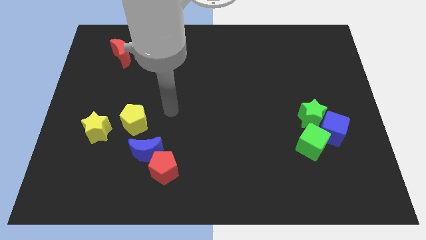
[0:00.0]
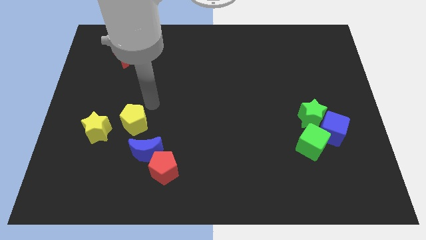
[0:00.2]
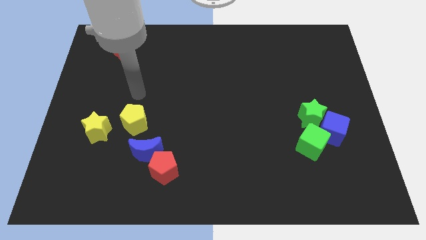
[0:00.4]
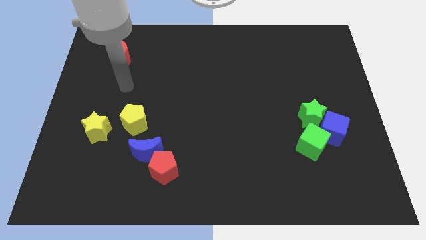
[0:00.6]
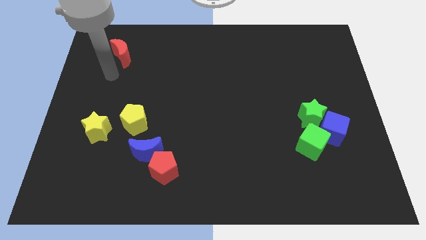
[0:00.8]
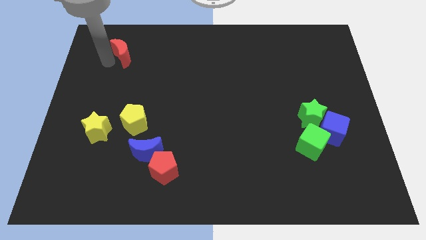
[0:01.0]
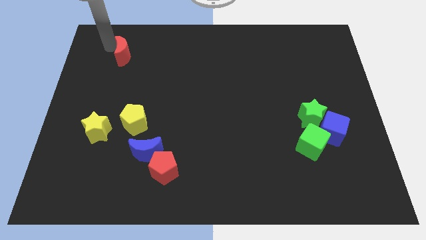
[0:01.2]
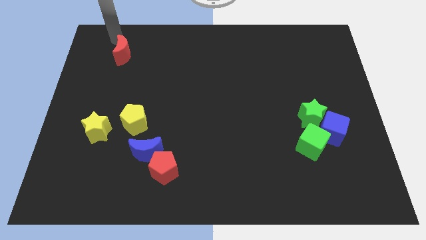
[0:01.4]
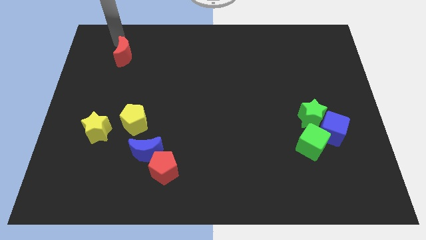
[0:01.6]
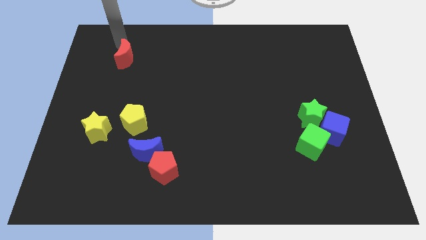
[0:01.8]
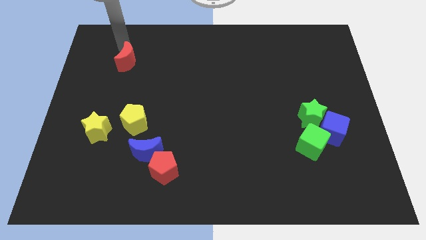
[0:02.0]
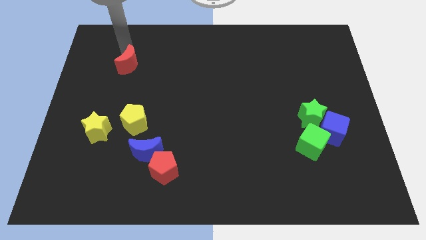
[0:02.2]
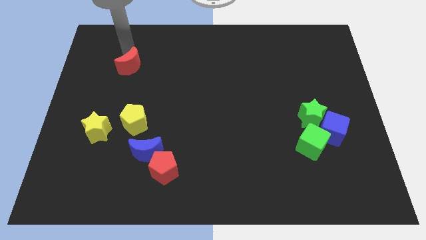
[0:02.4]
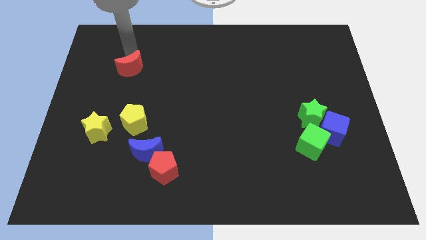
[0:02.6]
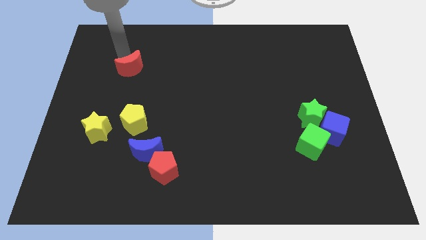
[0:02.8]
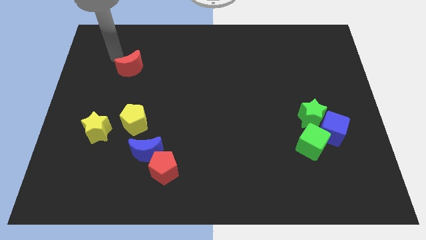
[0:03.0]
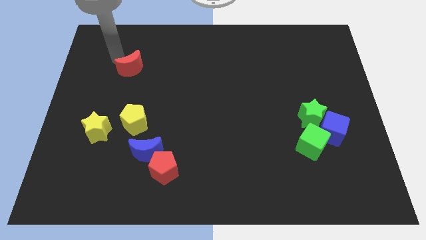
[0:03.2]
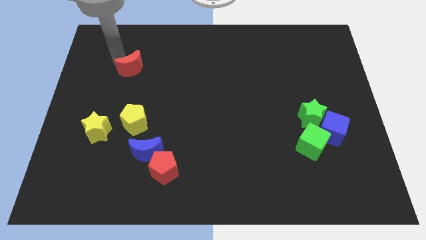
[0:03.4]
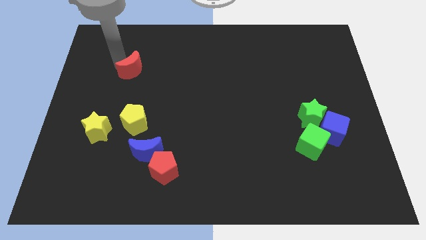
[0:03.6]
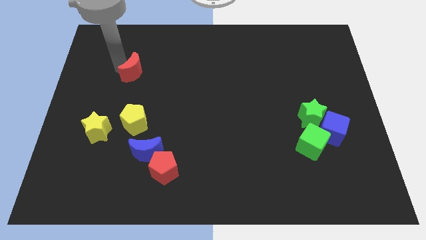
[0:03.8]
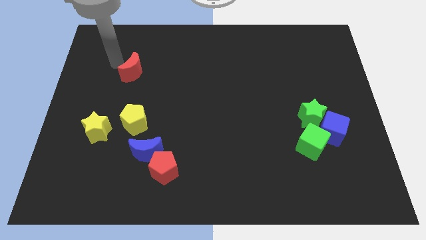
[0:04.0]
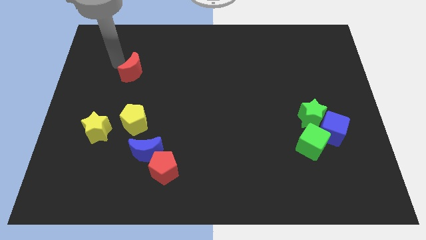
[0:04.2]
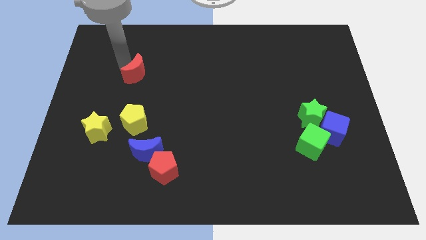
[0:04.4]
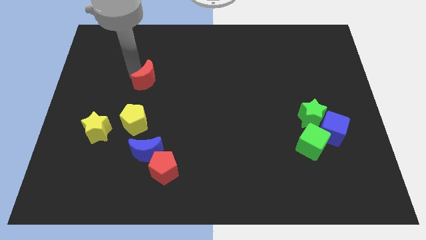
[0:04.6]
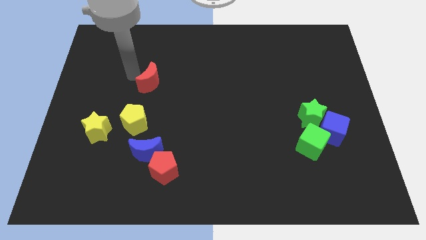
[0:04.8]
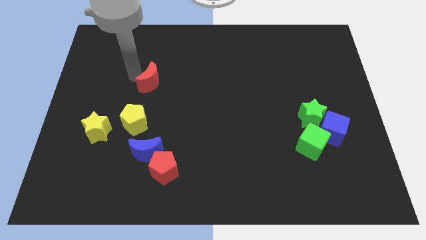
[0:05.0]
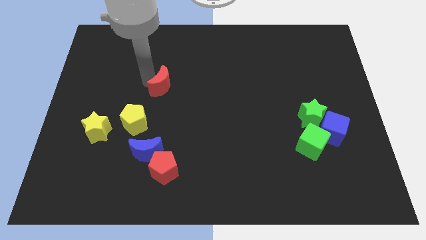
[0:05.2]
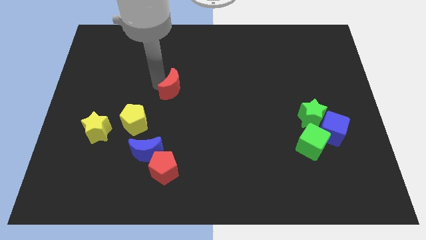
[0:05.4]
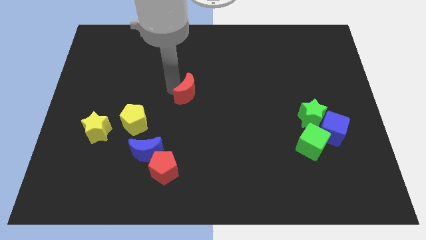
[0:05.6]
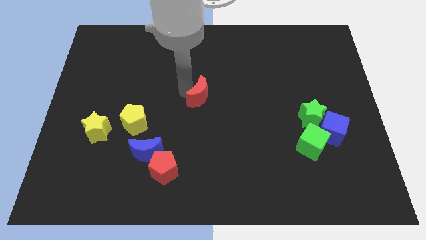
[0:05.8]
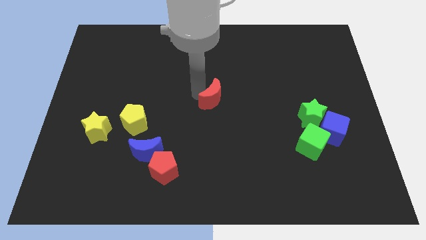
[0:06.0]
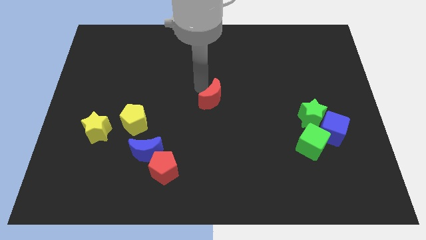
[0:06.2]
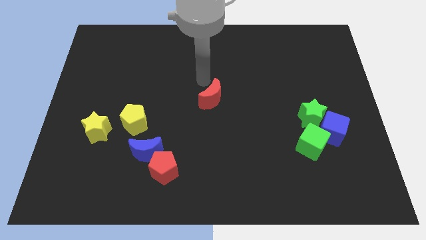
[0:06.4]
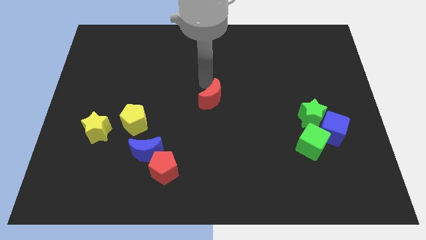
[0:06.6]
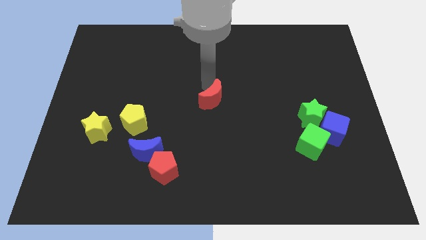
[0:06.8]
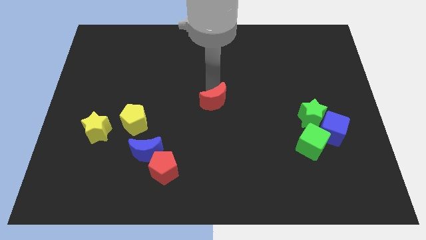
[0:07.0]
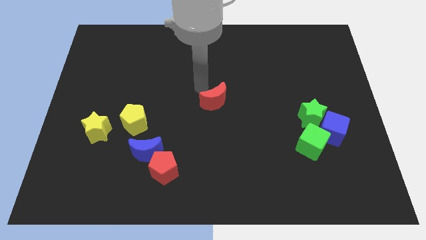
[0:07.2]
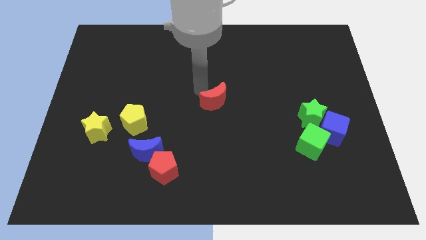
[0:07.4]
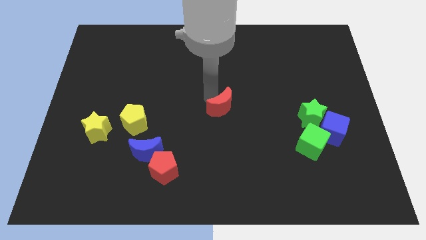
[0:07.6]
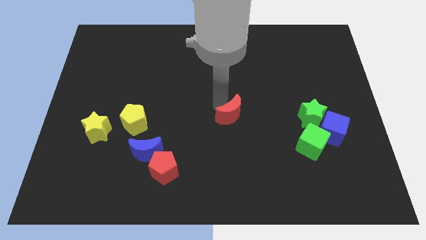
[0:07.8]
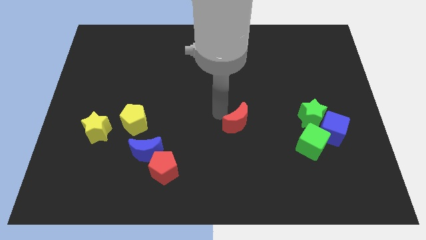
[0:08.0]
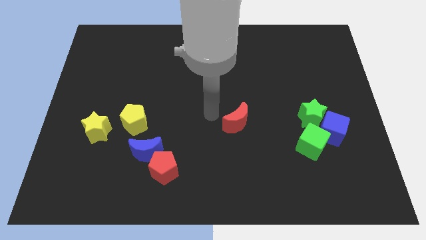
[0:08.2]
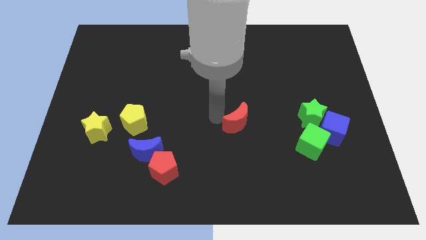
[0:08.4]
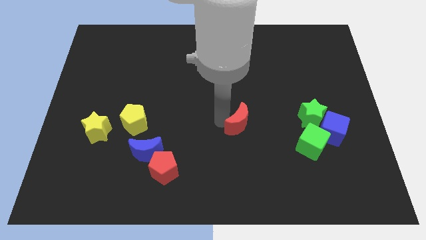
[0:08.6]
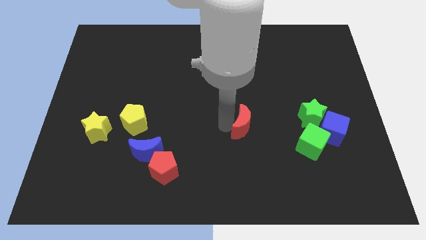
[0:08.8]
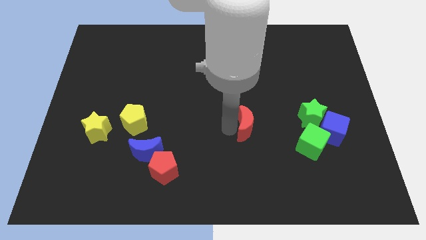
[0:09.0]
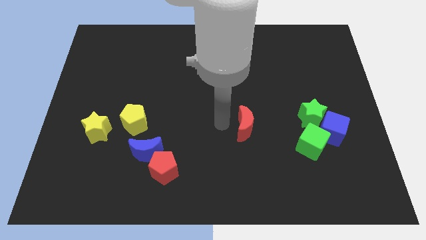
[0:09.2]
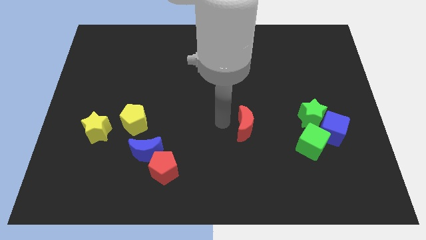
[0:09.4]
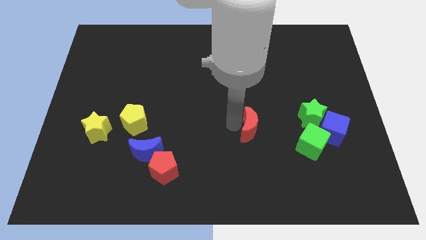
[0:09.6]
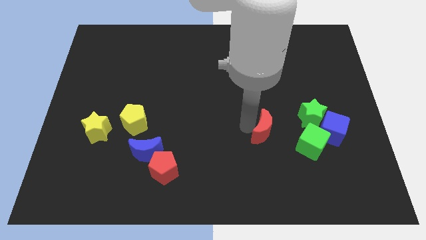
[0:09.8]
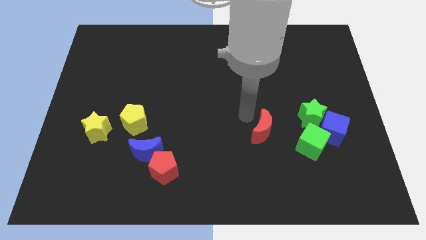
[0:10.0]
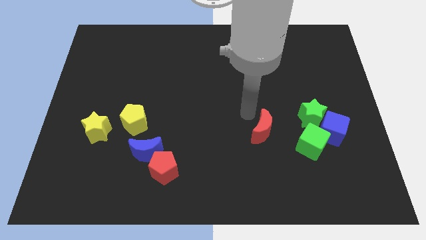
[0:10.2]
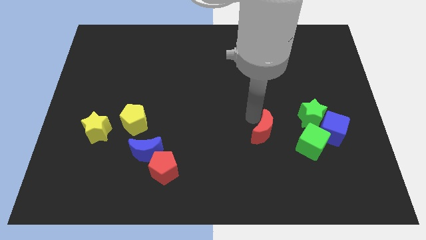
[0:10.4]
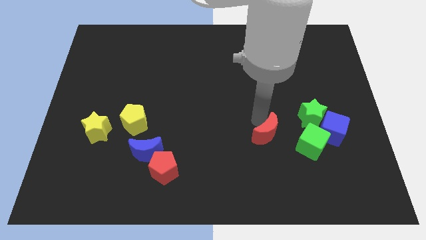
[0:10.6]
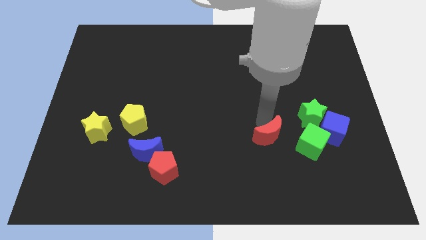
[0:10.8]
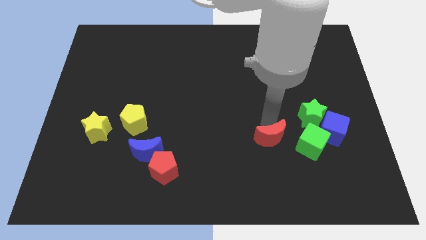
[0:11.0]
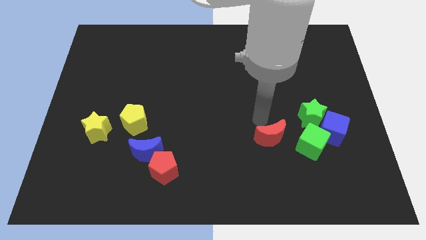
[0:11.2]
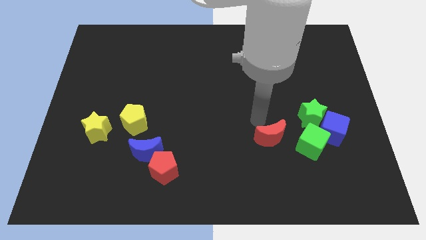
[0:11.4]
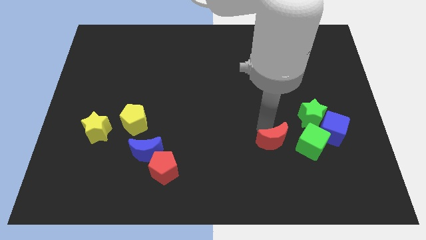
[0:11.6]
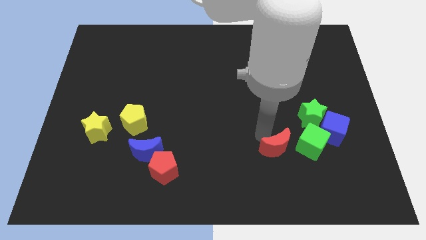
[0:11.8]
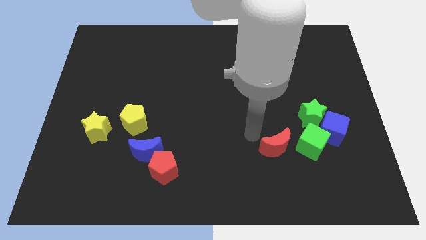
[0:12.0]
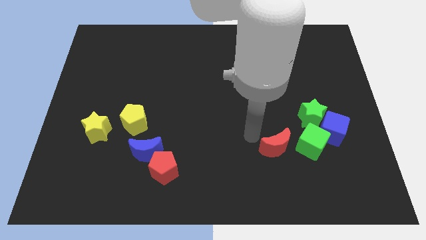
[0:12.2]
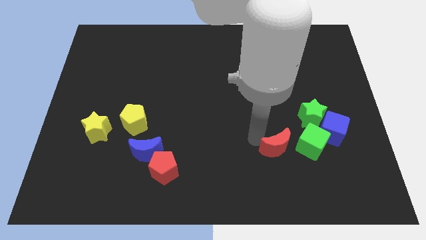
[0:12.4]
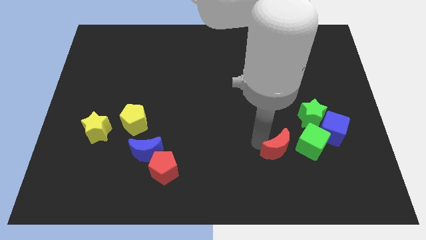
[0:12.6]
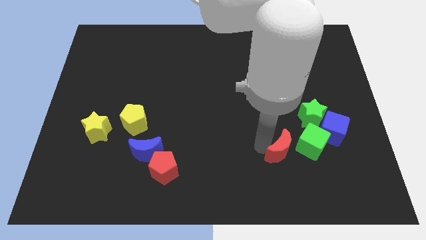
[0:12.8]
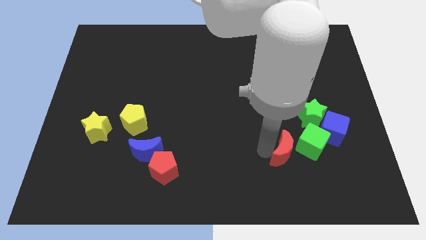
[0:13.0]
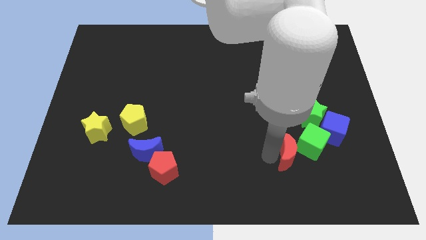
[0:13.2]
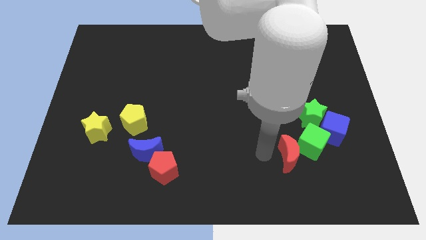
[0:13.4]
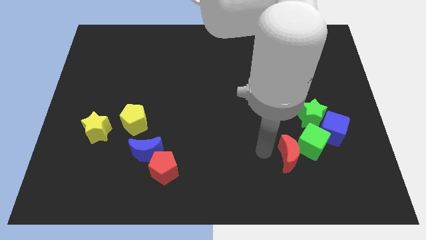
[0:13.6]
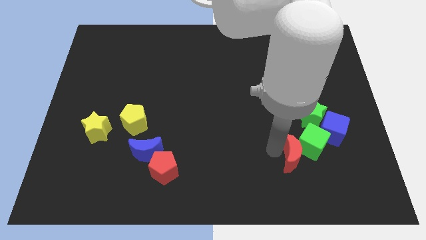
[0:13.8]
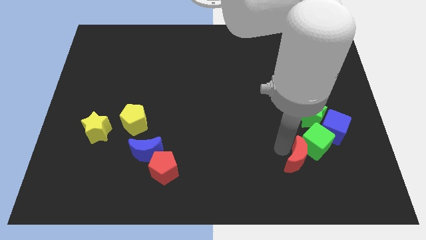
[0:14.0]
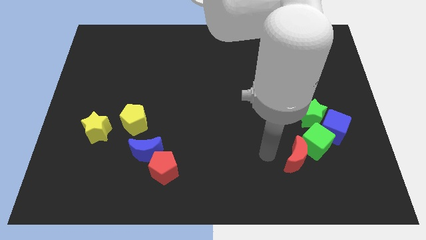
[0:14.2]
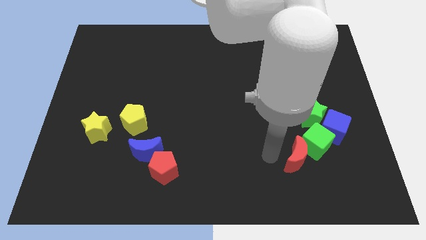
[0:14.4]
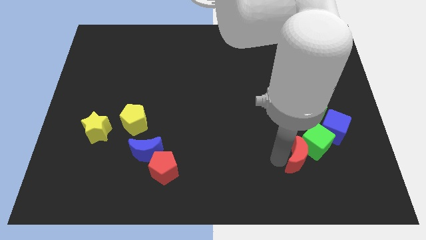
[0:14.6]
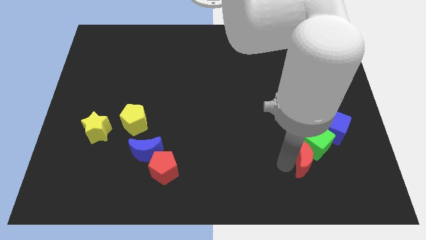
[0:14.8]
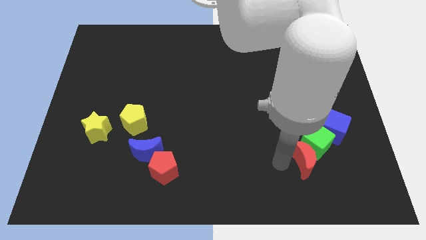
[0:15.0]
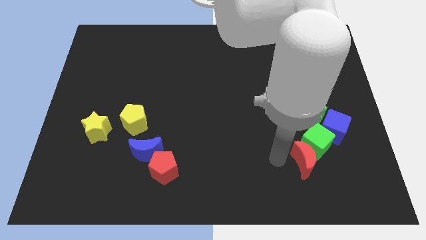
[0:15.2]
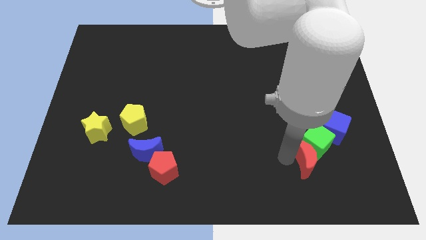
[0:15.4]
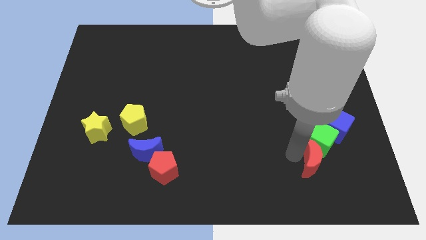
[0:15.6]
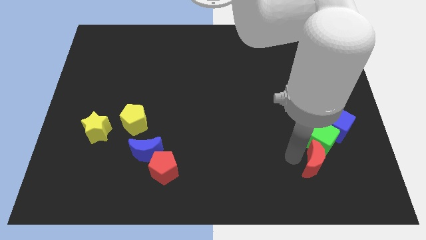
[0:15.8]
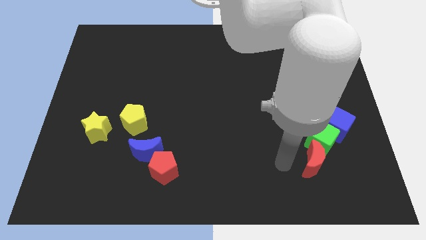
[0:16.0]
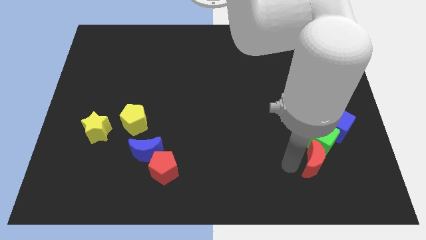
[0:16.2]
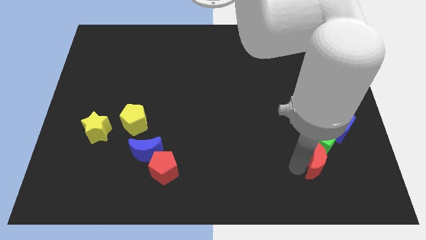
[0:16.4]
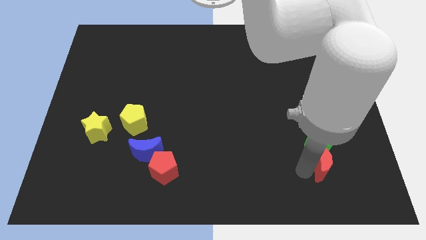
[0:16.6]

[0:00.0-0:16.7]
move the red moon to the bottom right of the green cube
